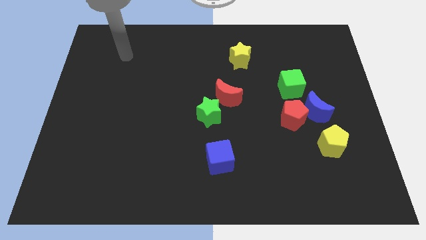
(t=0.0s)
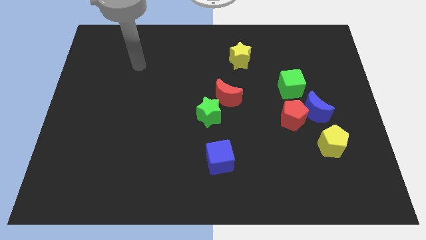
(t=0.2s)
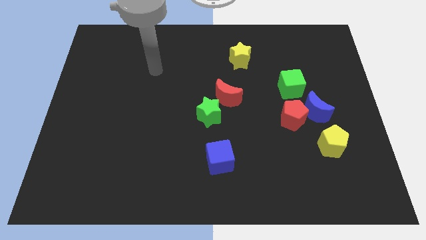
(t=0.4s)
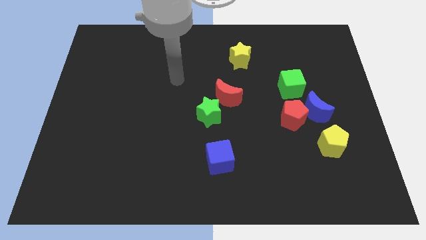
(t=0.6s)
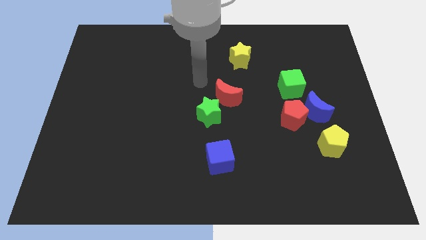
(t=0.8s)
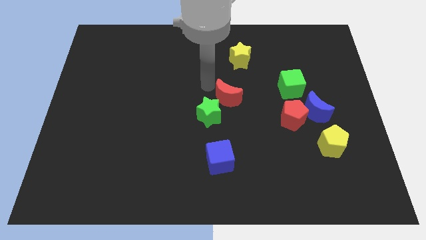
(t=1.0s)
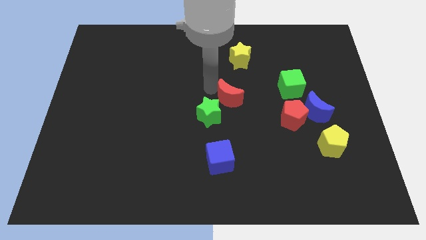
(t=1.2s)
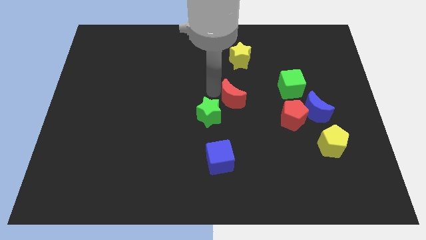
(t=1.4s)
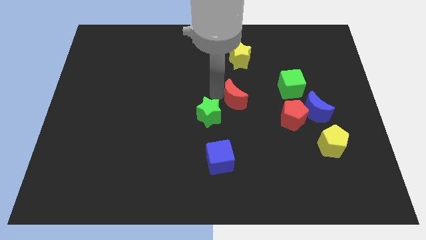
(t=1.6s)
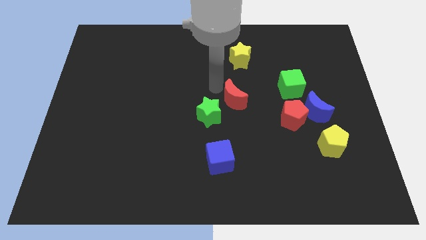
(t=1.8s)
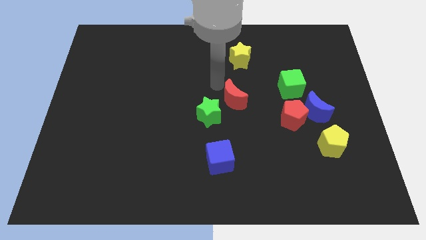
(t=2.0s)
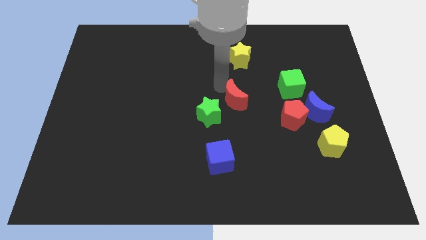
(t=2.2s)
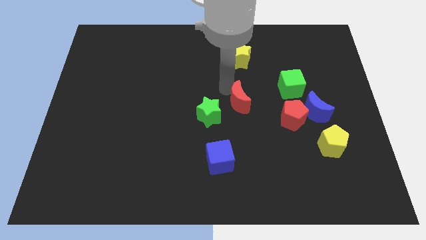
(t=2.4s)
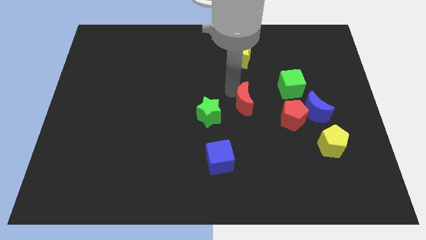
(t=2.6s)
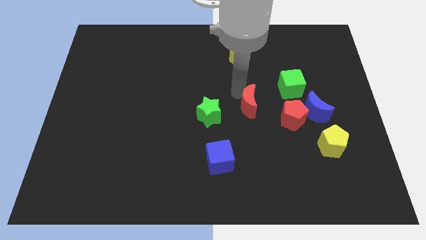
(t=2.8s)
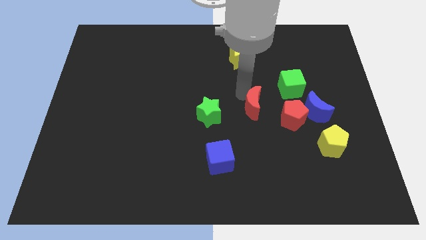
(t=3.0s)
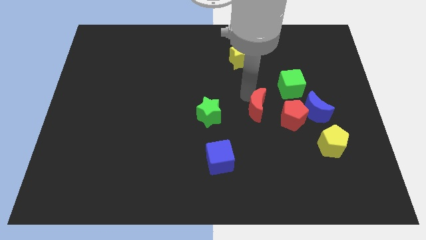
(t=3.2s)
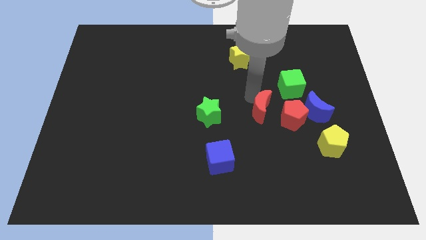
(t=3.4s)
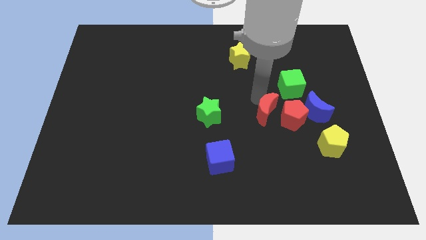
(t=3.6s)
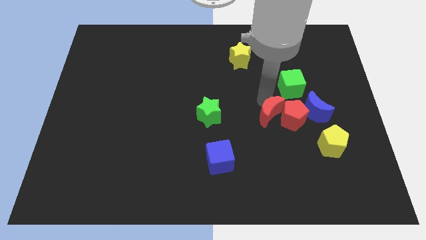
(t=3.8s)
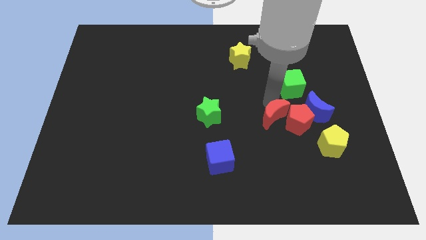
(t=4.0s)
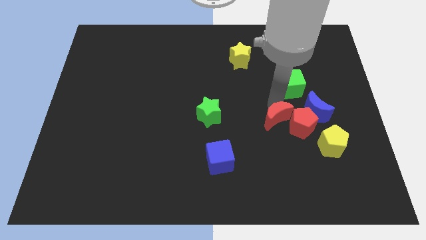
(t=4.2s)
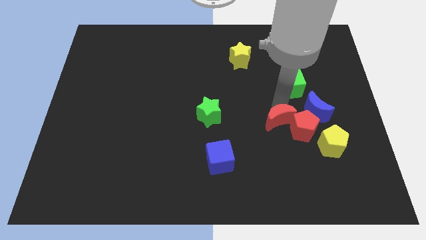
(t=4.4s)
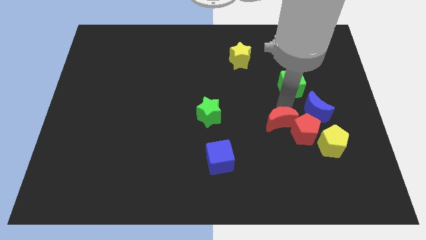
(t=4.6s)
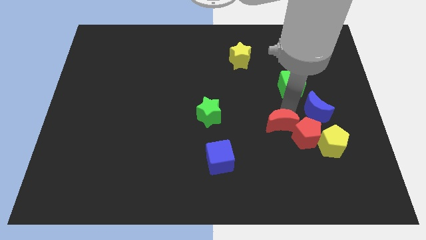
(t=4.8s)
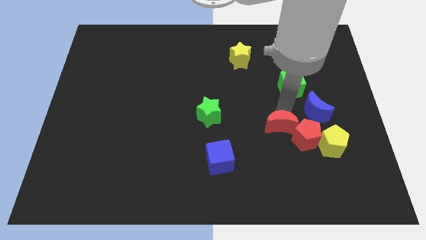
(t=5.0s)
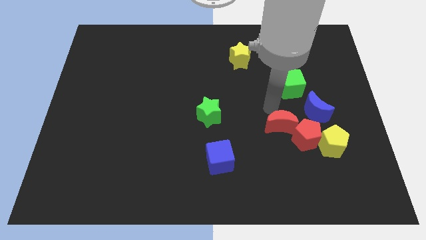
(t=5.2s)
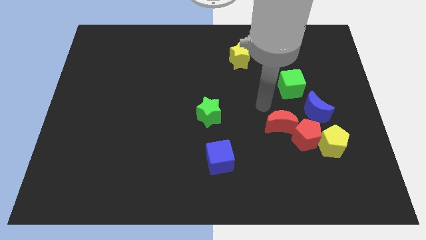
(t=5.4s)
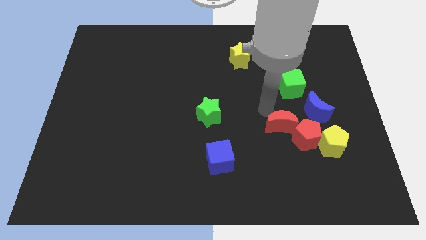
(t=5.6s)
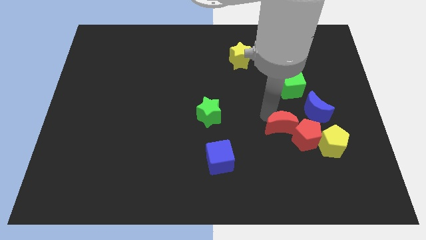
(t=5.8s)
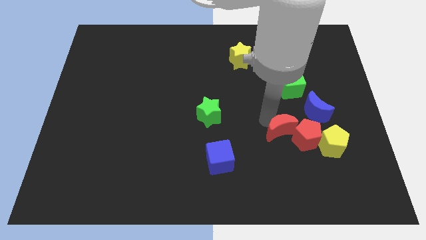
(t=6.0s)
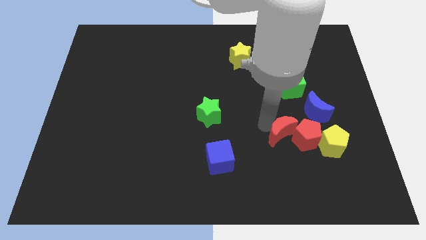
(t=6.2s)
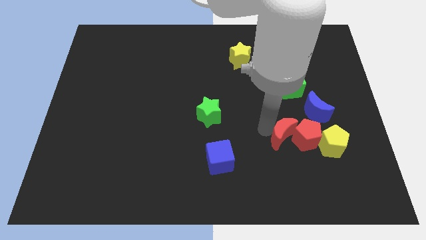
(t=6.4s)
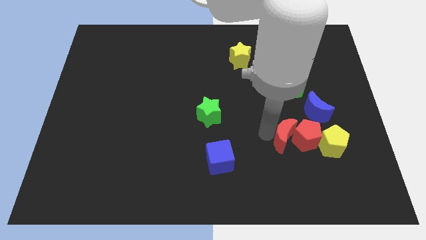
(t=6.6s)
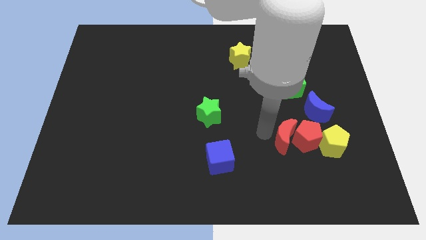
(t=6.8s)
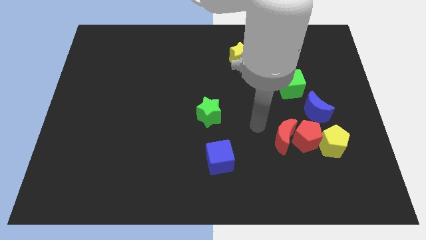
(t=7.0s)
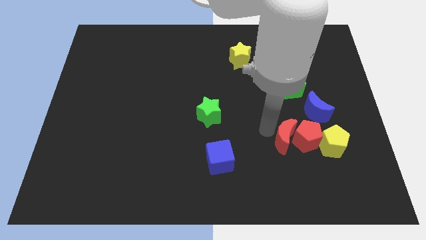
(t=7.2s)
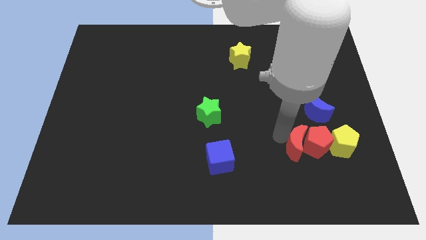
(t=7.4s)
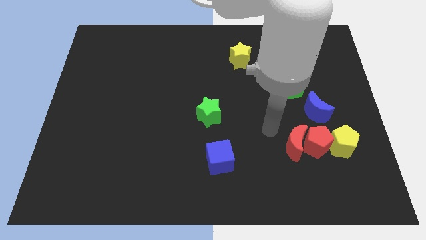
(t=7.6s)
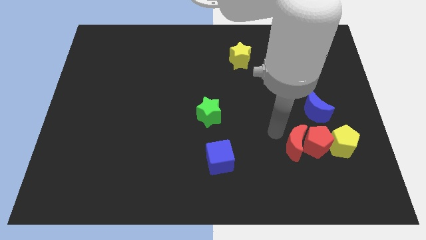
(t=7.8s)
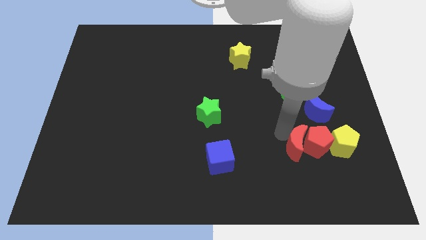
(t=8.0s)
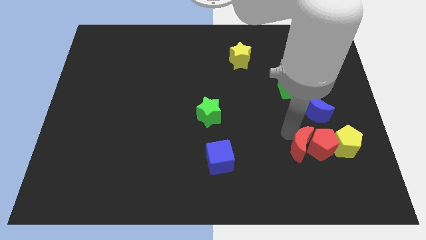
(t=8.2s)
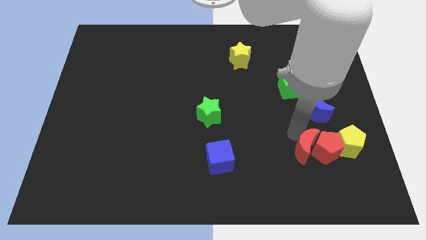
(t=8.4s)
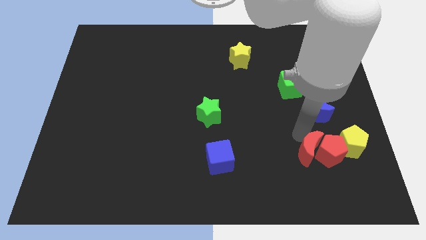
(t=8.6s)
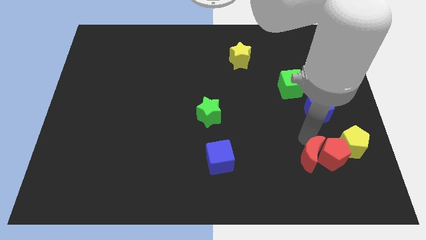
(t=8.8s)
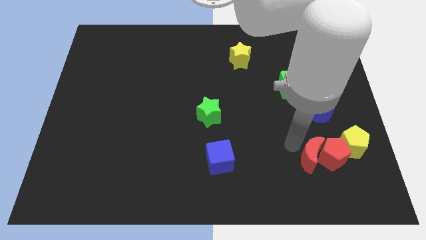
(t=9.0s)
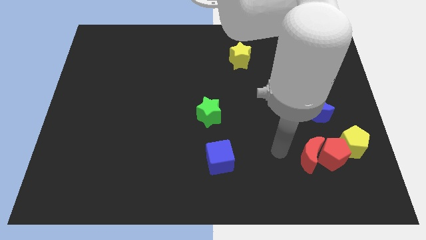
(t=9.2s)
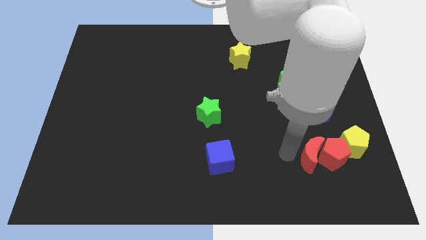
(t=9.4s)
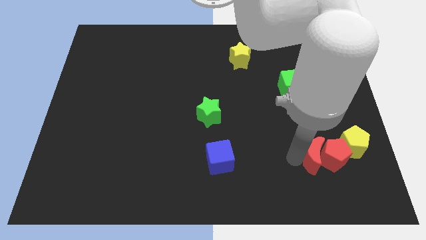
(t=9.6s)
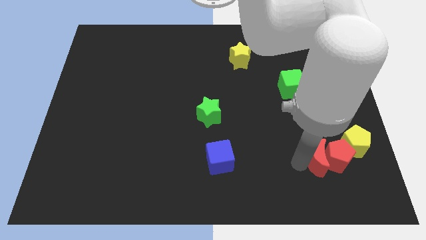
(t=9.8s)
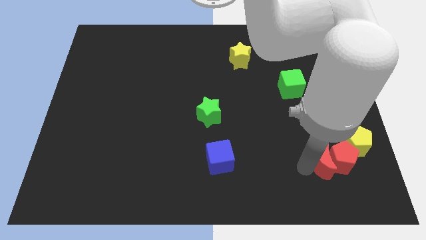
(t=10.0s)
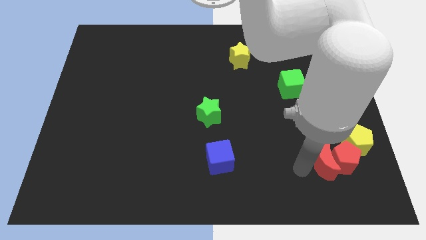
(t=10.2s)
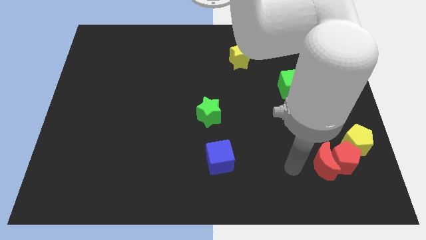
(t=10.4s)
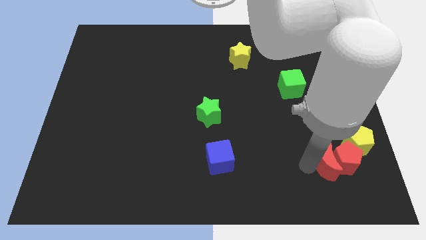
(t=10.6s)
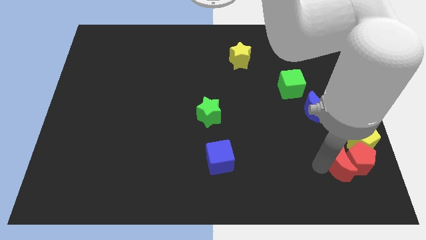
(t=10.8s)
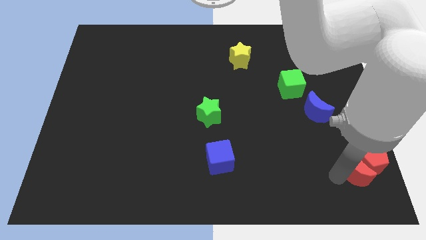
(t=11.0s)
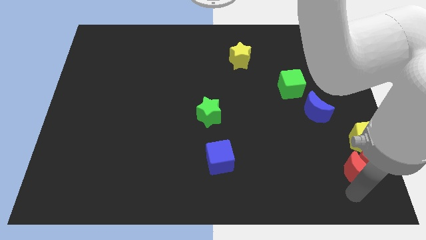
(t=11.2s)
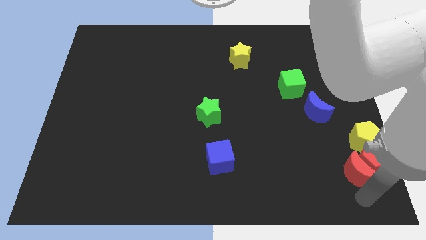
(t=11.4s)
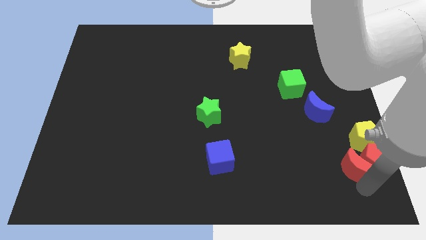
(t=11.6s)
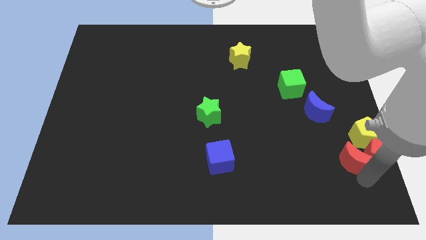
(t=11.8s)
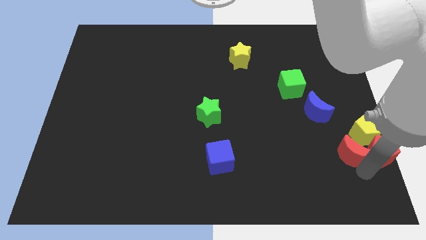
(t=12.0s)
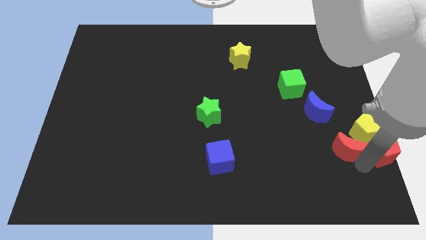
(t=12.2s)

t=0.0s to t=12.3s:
push the red moon to the bottom right side of the blue moon

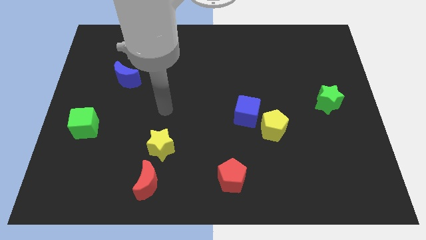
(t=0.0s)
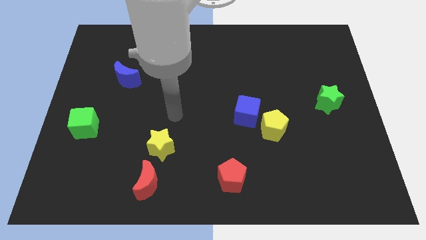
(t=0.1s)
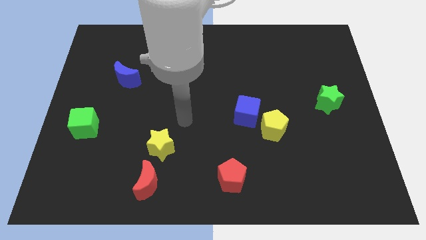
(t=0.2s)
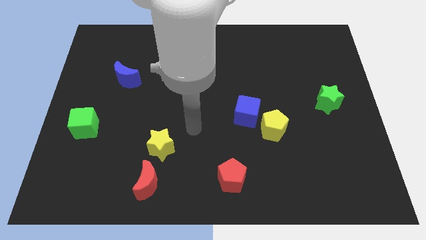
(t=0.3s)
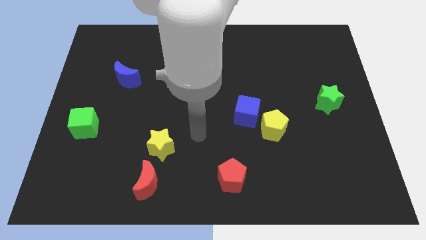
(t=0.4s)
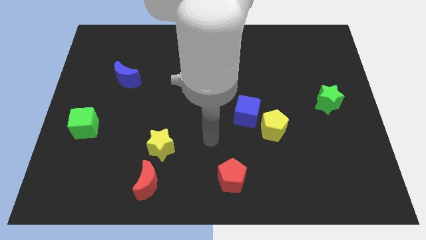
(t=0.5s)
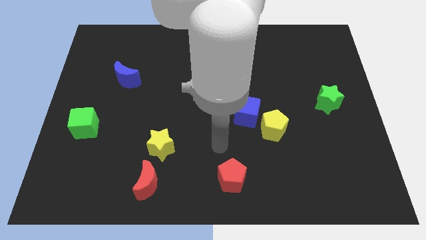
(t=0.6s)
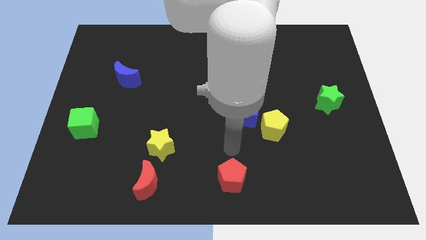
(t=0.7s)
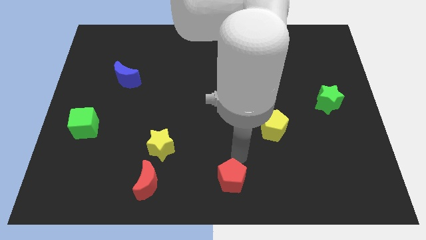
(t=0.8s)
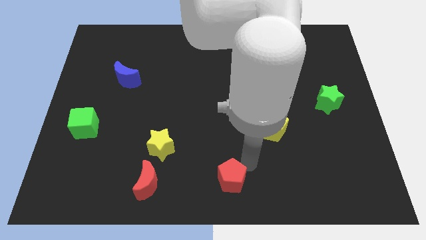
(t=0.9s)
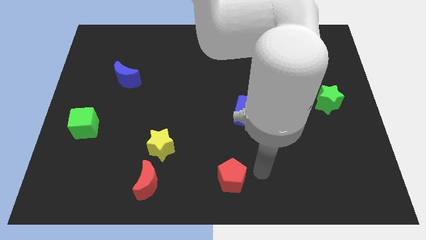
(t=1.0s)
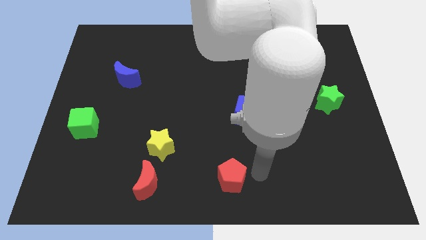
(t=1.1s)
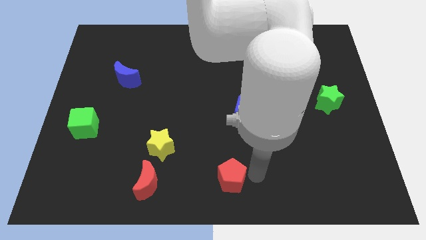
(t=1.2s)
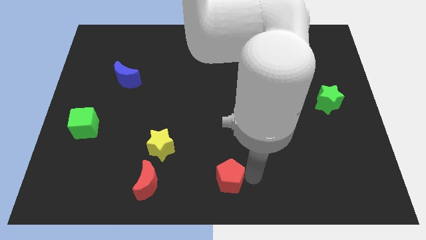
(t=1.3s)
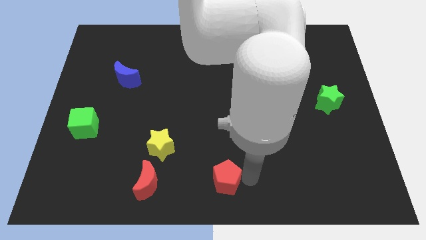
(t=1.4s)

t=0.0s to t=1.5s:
move the red pentagon just right of the red moon

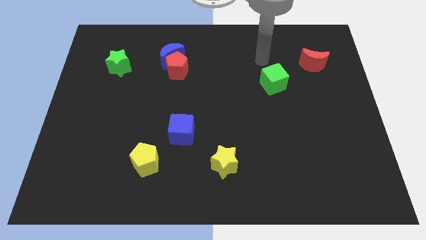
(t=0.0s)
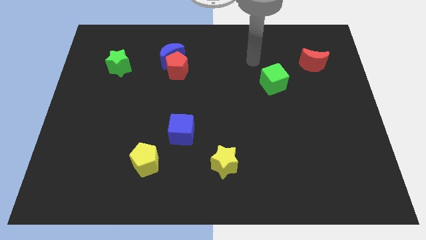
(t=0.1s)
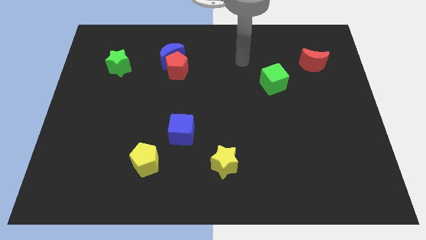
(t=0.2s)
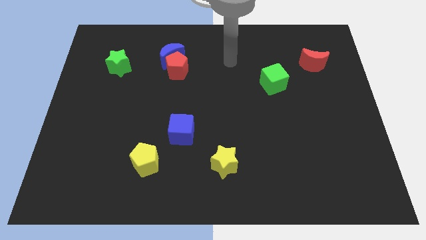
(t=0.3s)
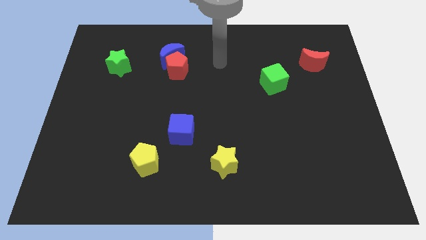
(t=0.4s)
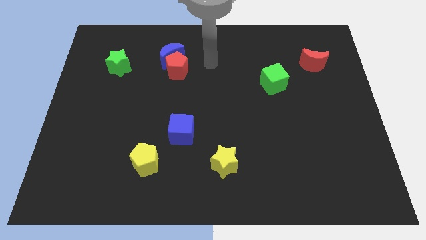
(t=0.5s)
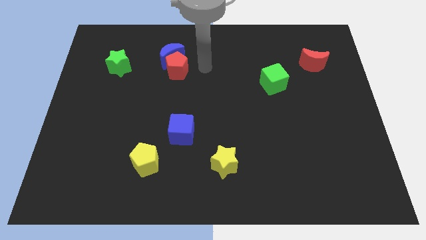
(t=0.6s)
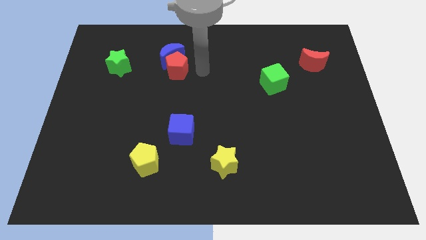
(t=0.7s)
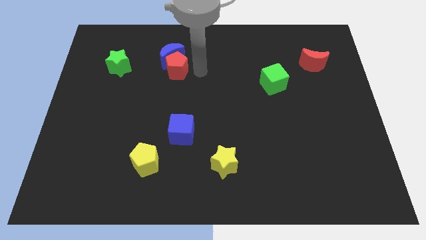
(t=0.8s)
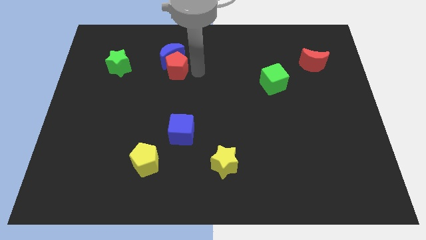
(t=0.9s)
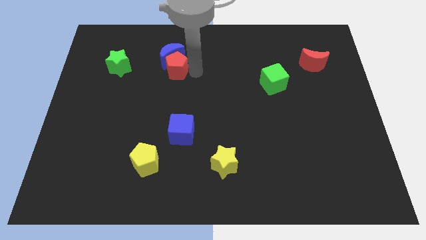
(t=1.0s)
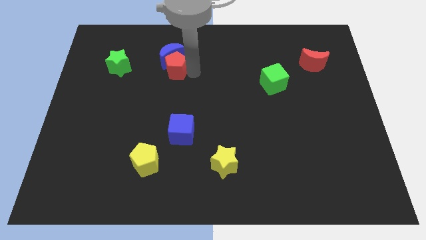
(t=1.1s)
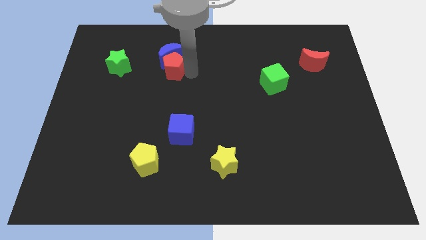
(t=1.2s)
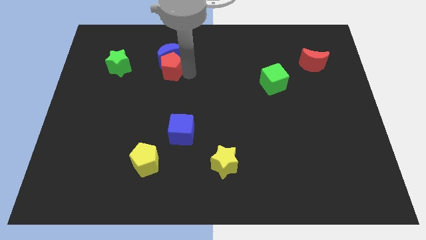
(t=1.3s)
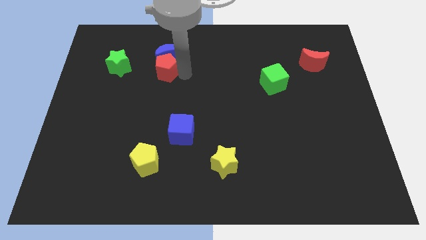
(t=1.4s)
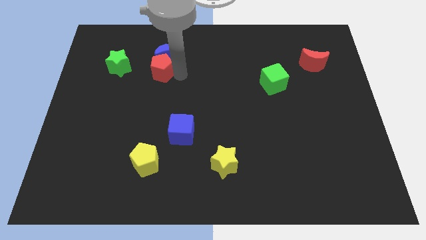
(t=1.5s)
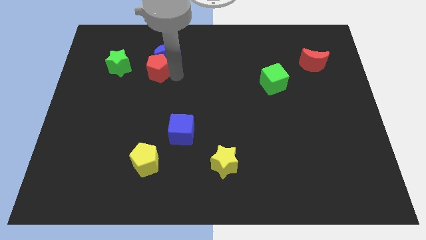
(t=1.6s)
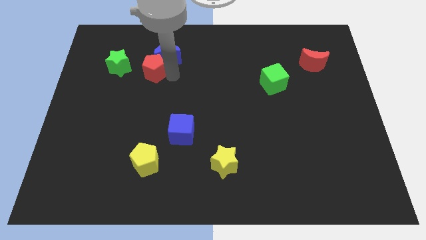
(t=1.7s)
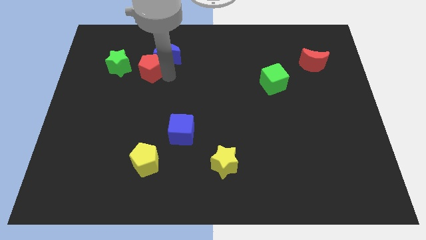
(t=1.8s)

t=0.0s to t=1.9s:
slide the red pentagon left of the blue moon
